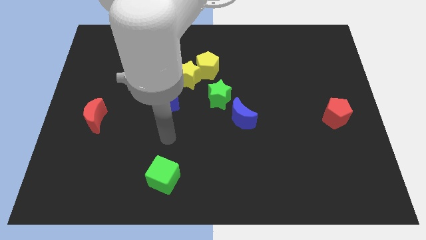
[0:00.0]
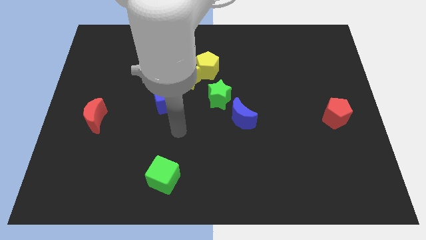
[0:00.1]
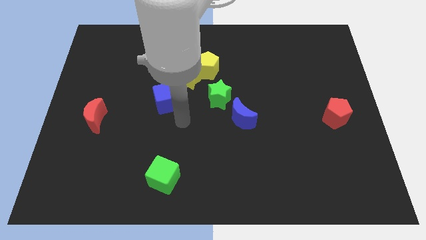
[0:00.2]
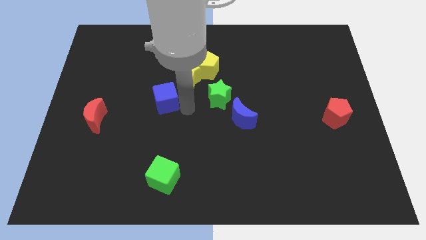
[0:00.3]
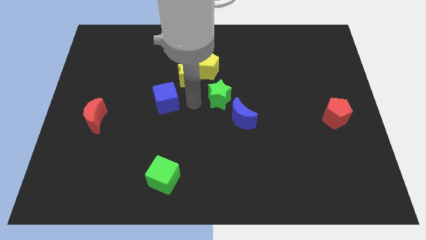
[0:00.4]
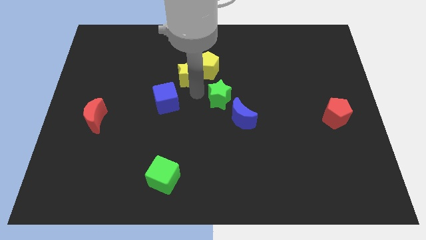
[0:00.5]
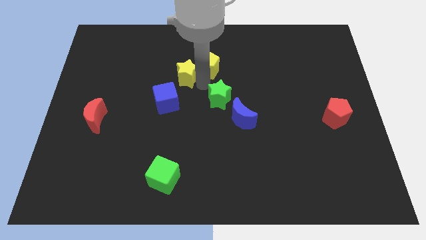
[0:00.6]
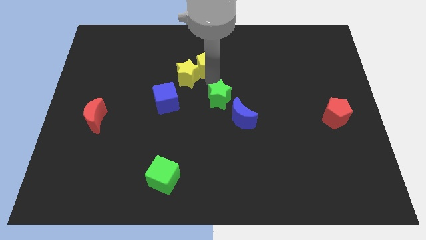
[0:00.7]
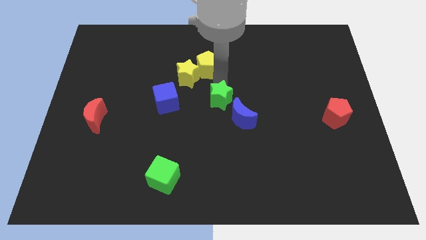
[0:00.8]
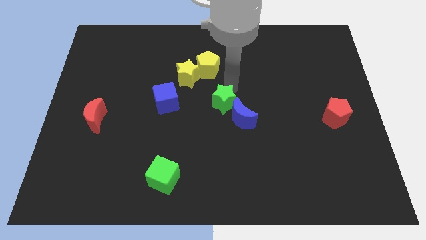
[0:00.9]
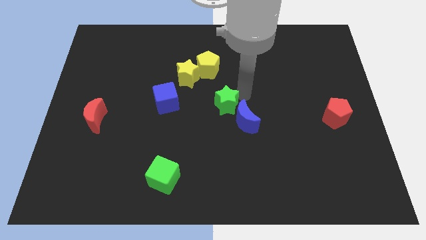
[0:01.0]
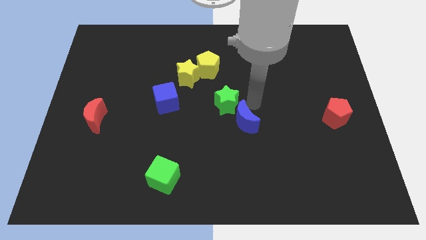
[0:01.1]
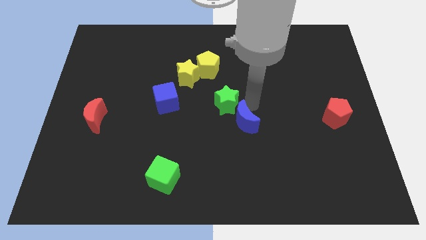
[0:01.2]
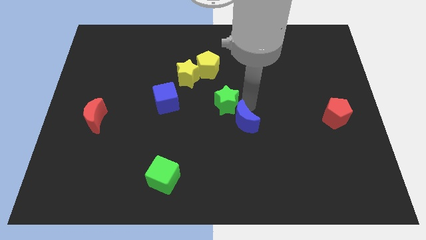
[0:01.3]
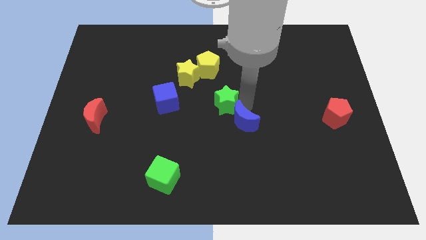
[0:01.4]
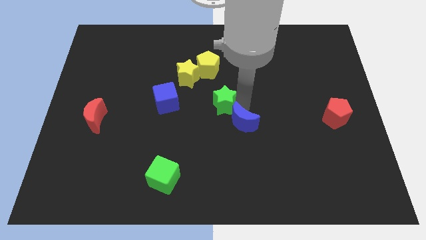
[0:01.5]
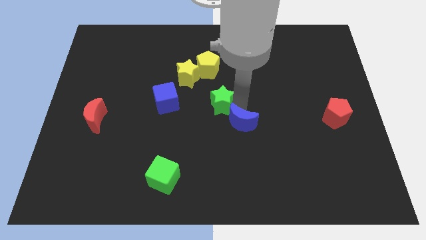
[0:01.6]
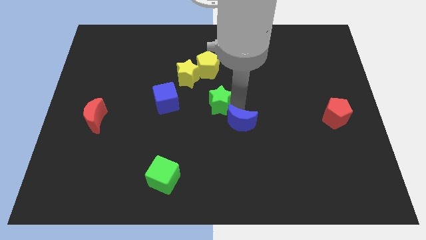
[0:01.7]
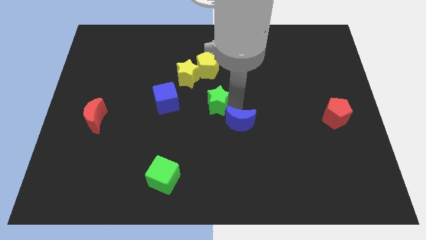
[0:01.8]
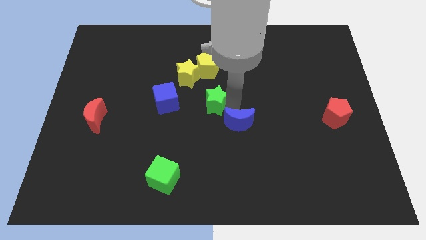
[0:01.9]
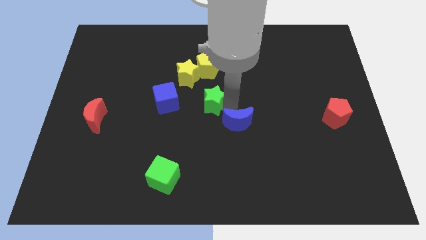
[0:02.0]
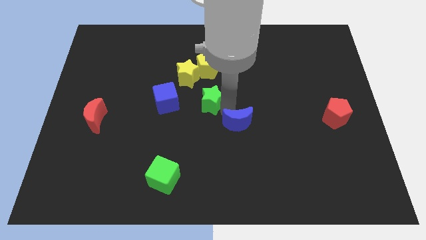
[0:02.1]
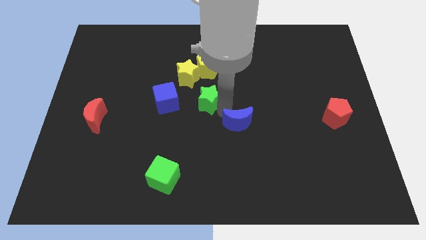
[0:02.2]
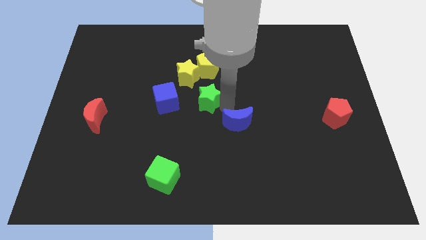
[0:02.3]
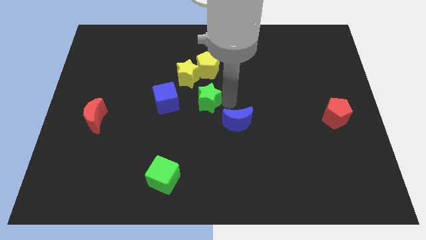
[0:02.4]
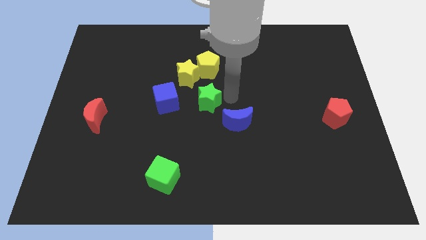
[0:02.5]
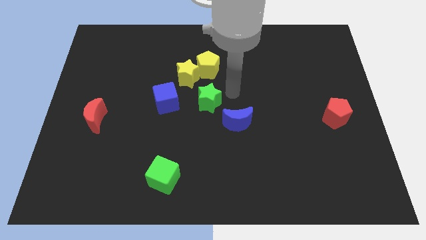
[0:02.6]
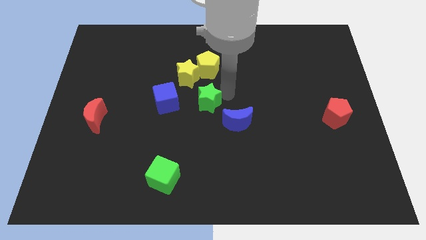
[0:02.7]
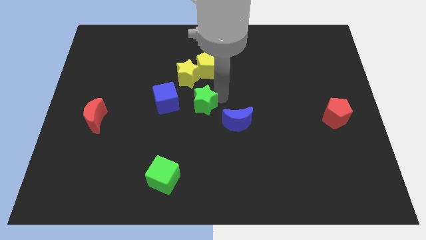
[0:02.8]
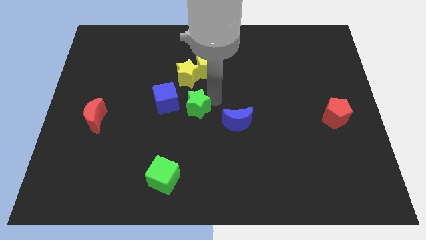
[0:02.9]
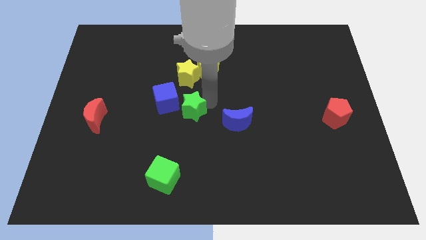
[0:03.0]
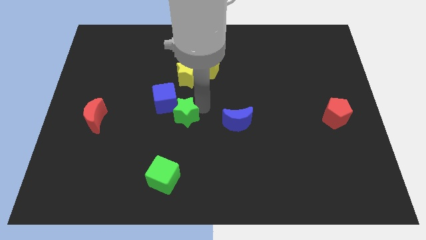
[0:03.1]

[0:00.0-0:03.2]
slide the green star to the left a little bit

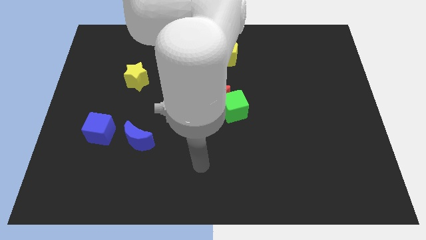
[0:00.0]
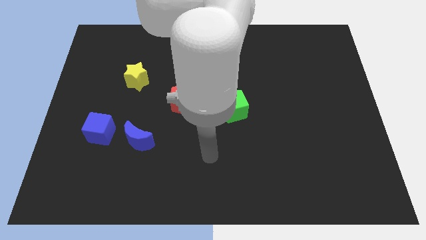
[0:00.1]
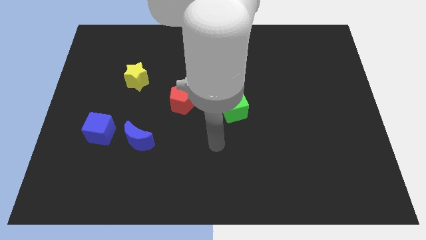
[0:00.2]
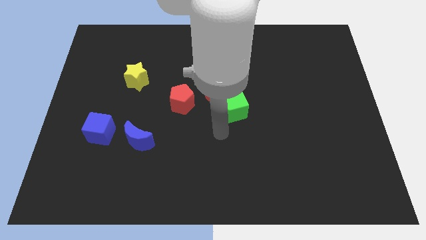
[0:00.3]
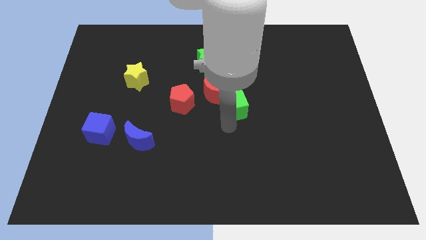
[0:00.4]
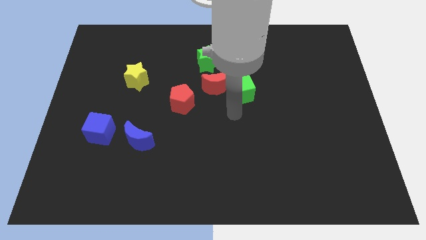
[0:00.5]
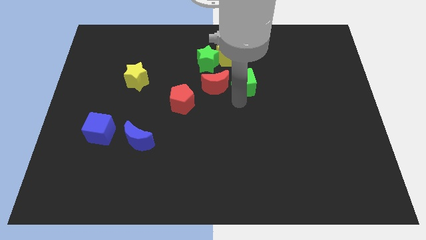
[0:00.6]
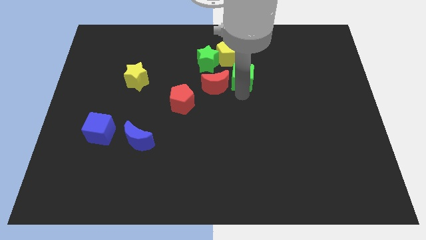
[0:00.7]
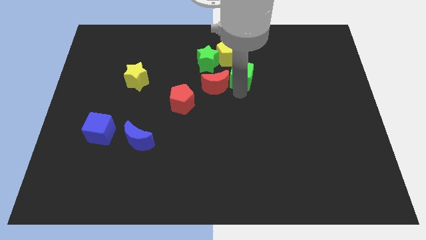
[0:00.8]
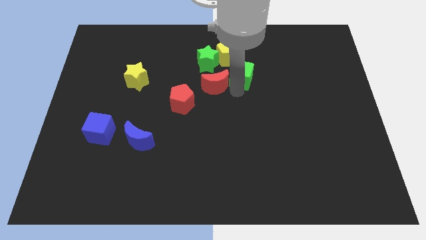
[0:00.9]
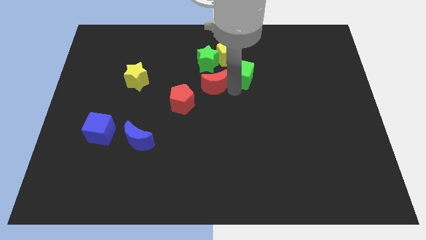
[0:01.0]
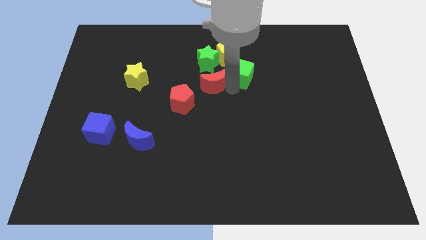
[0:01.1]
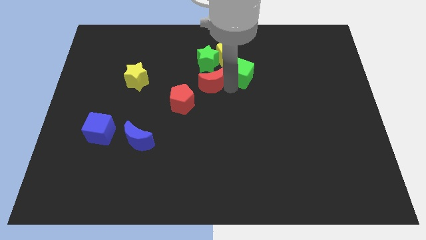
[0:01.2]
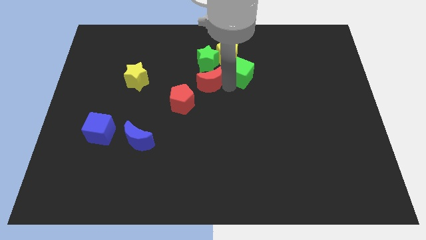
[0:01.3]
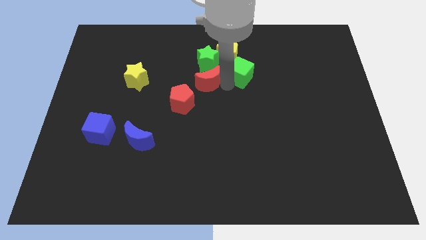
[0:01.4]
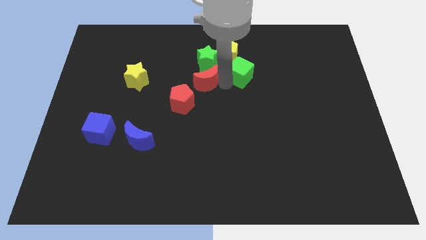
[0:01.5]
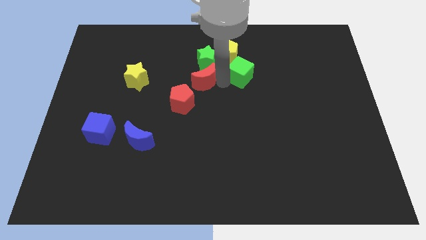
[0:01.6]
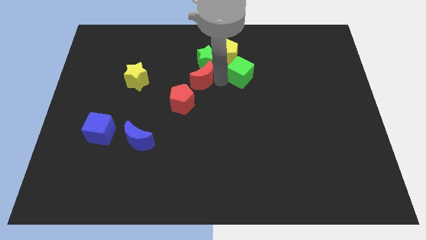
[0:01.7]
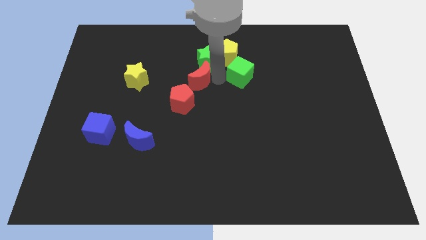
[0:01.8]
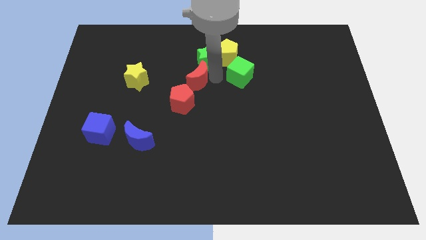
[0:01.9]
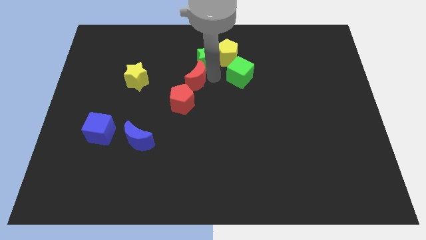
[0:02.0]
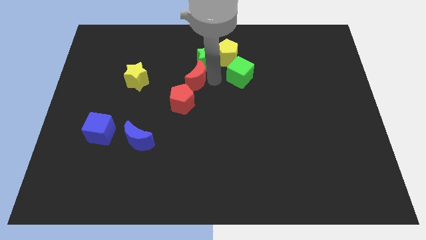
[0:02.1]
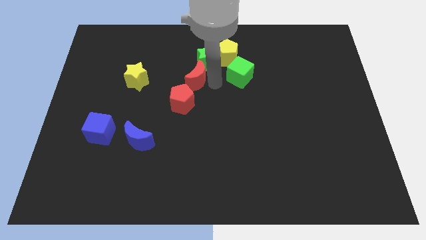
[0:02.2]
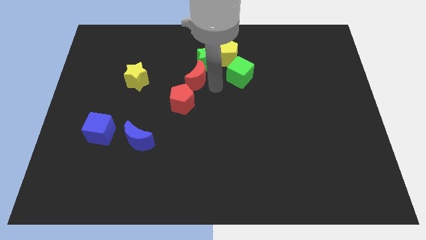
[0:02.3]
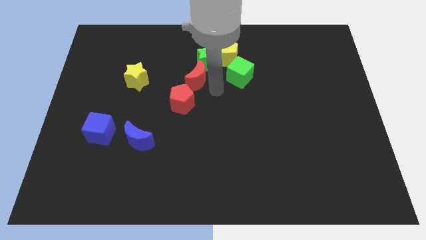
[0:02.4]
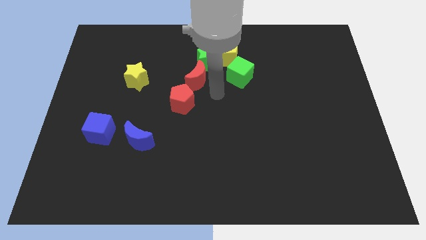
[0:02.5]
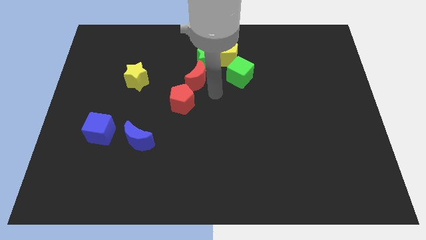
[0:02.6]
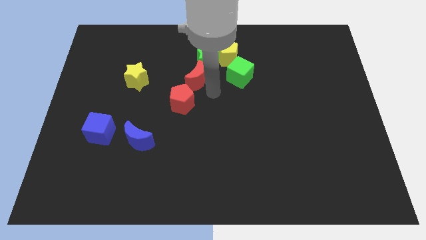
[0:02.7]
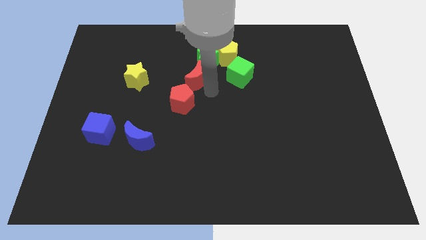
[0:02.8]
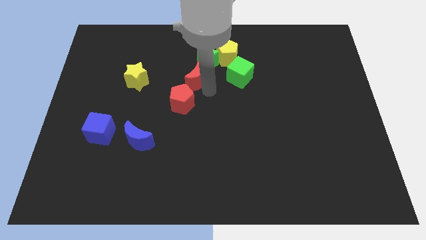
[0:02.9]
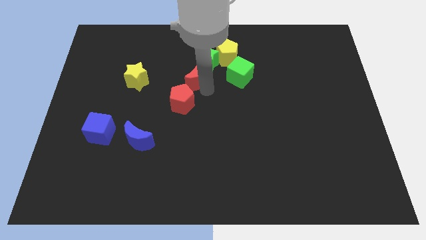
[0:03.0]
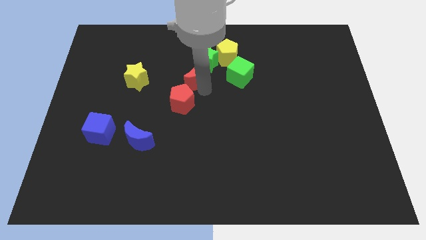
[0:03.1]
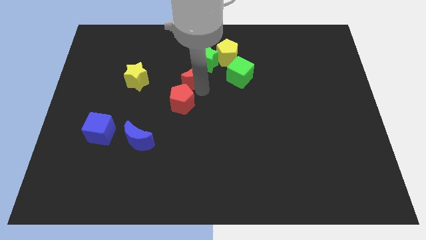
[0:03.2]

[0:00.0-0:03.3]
slightly move the red moon up and to the left

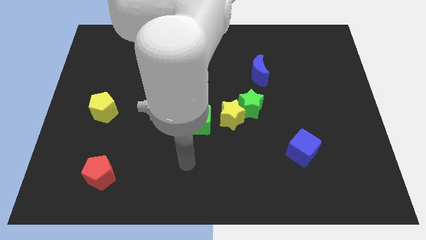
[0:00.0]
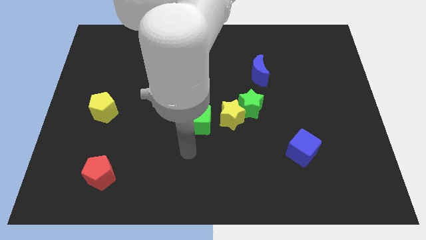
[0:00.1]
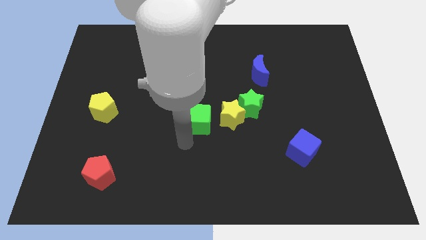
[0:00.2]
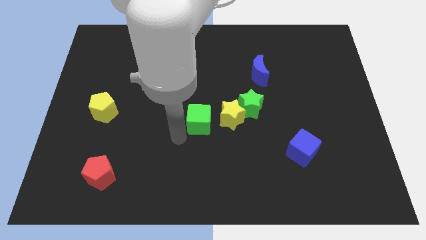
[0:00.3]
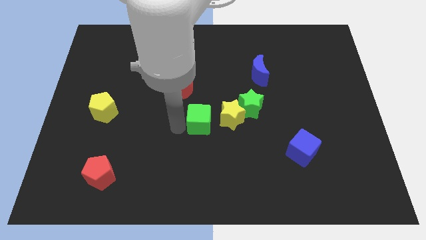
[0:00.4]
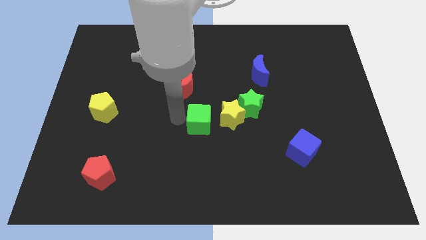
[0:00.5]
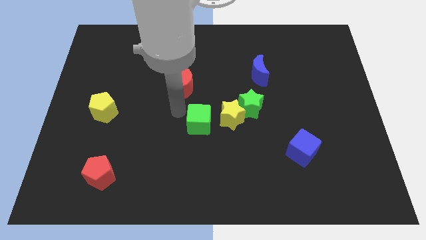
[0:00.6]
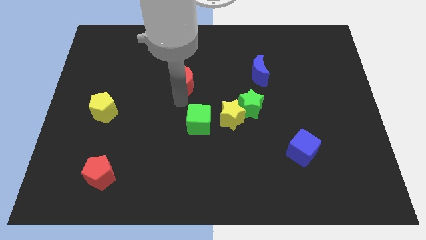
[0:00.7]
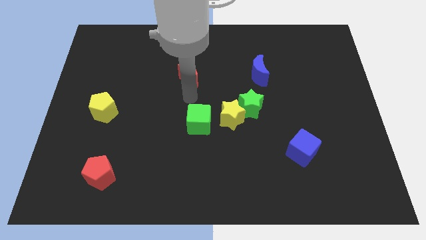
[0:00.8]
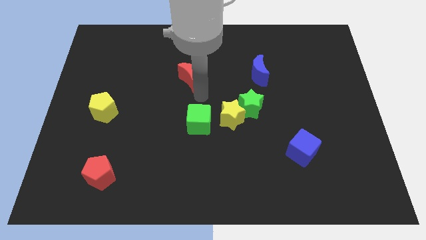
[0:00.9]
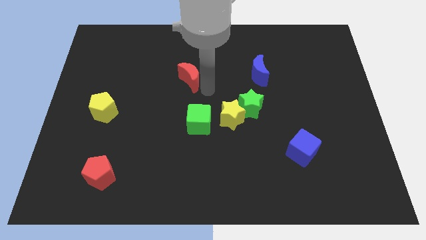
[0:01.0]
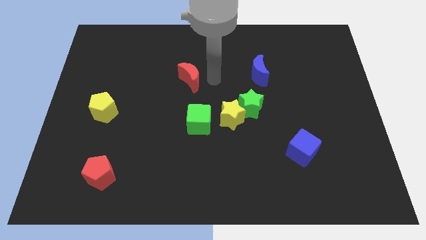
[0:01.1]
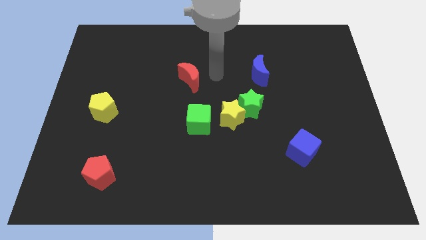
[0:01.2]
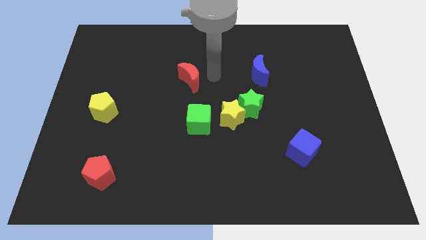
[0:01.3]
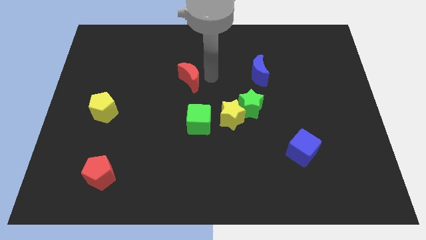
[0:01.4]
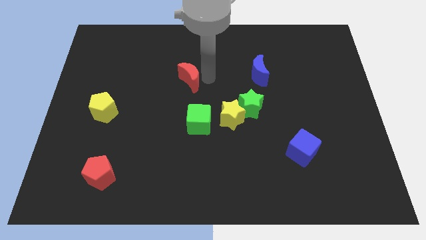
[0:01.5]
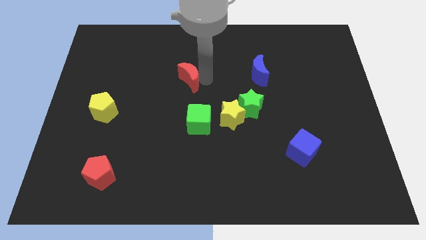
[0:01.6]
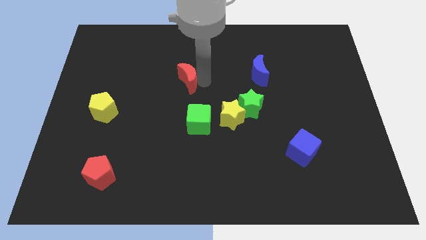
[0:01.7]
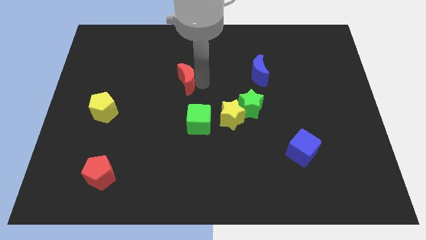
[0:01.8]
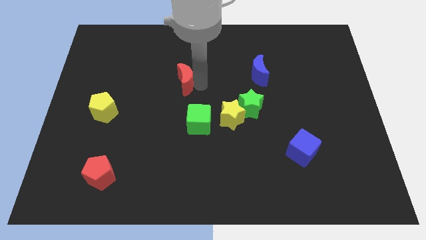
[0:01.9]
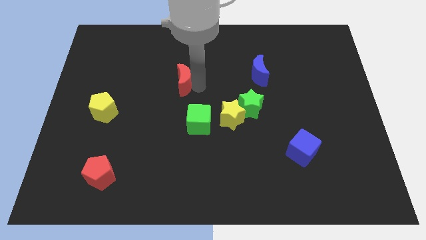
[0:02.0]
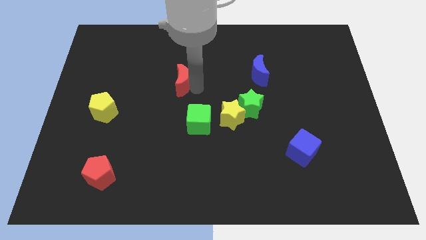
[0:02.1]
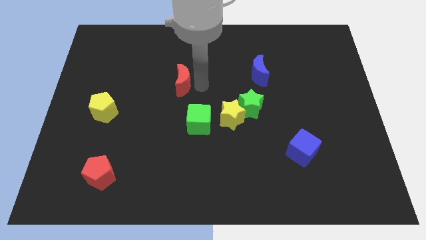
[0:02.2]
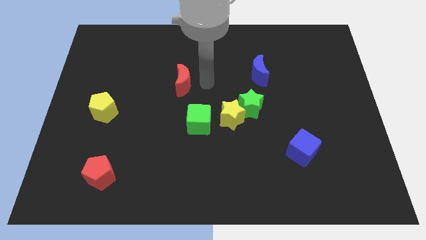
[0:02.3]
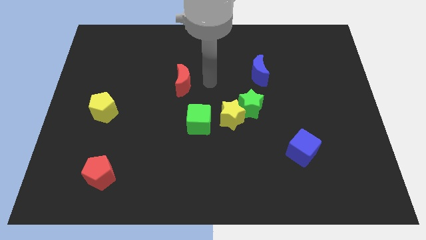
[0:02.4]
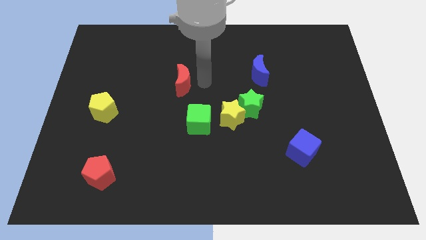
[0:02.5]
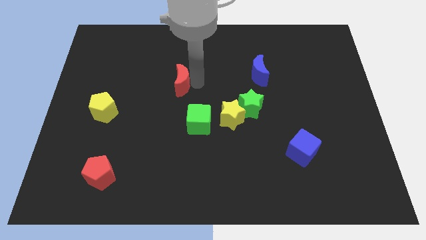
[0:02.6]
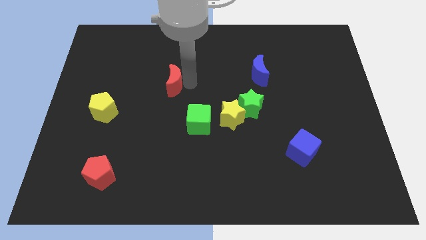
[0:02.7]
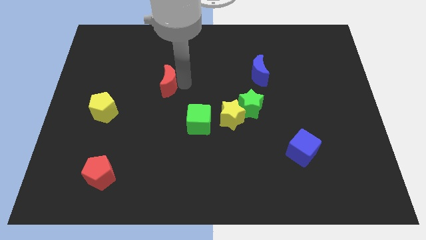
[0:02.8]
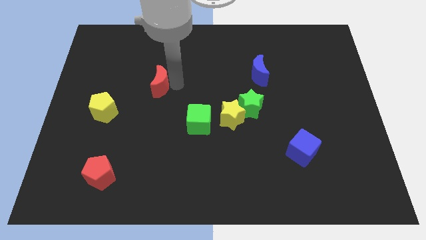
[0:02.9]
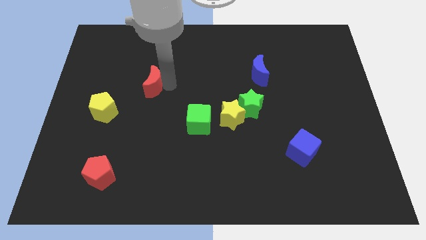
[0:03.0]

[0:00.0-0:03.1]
slide the red moon to the left a bit
